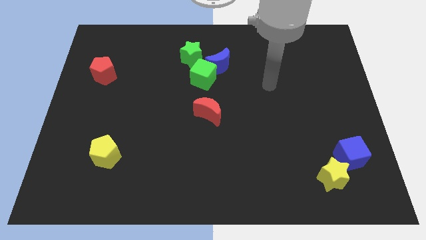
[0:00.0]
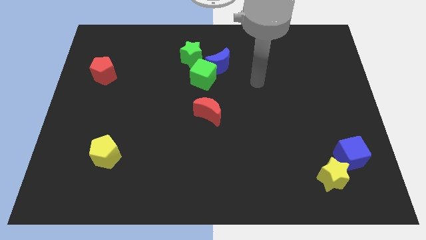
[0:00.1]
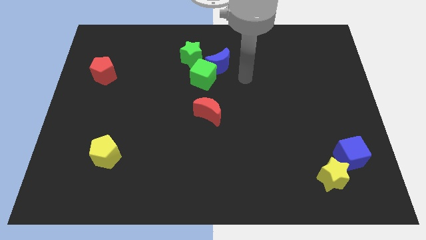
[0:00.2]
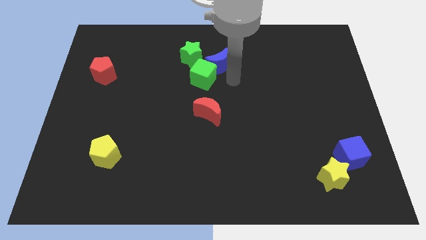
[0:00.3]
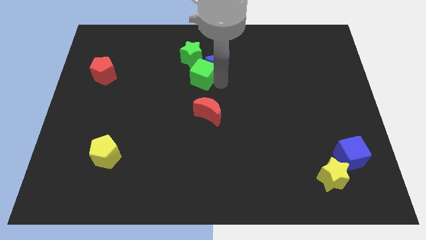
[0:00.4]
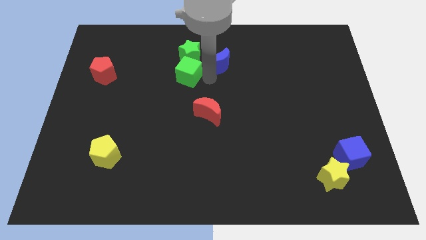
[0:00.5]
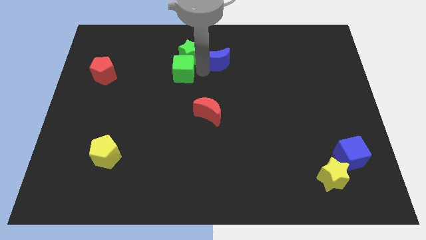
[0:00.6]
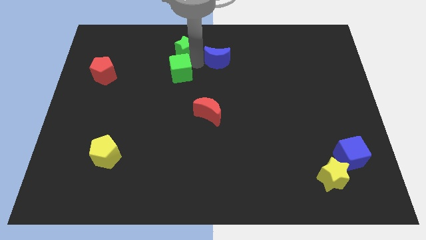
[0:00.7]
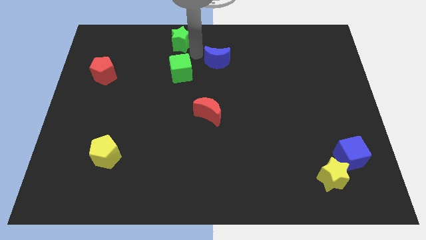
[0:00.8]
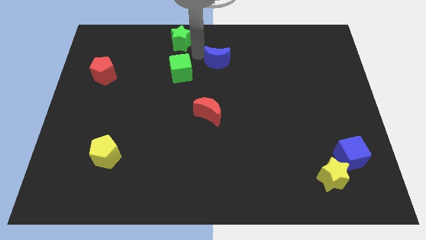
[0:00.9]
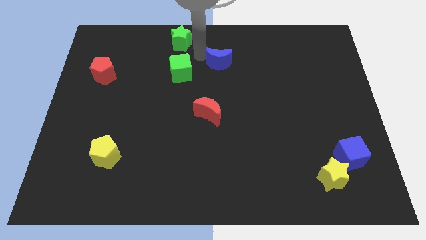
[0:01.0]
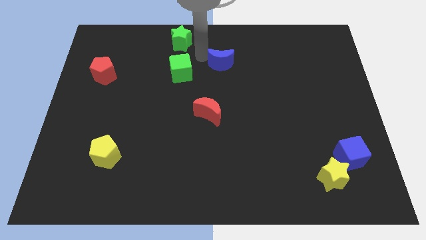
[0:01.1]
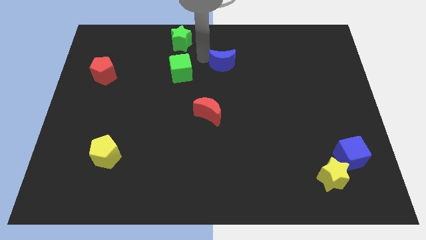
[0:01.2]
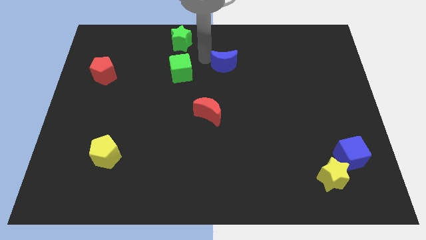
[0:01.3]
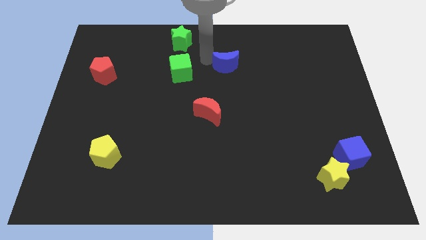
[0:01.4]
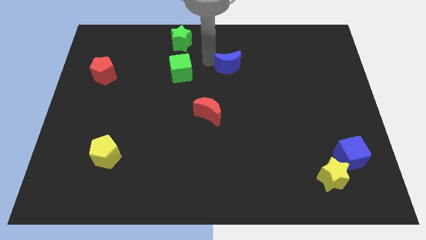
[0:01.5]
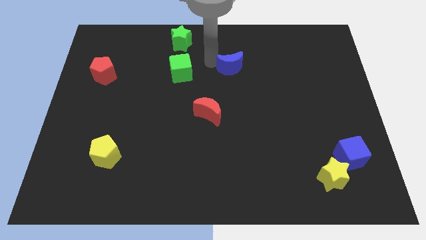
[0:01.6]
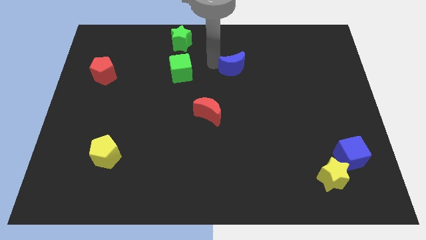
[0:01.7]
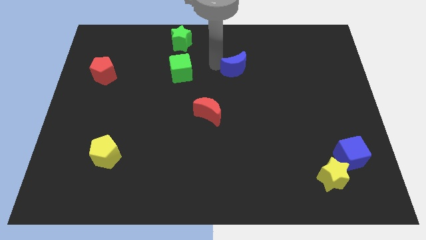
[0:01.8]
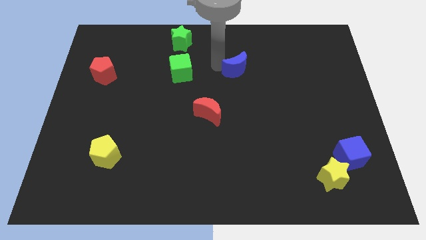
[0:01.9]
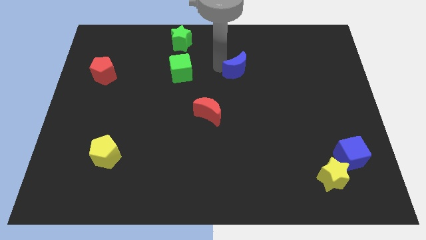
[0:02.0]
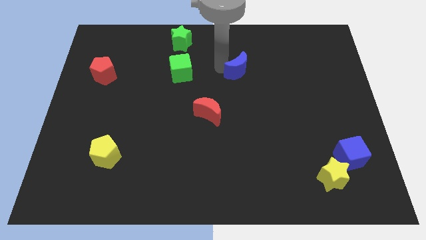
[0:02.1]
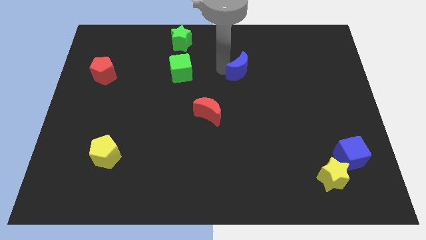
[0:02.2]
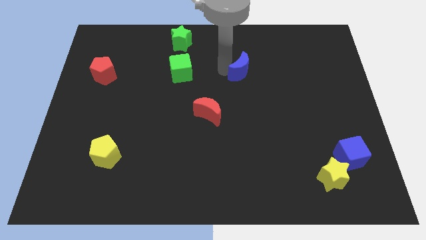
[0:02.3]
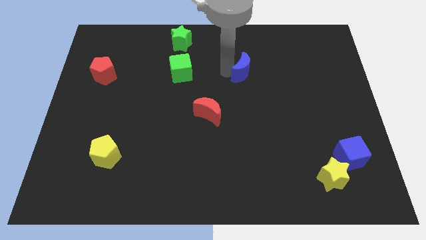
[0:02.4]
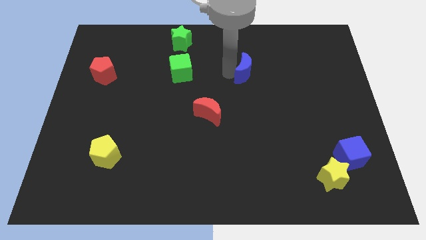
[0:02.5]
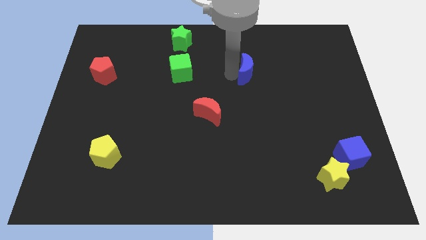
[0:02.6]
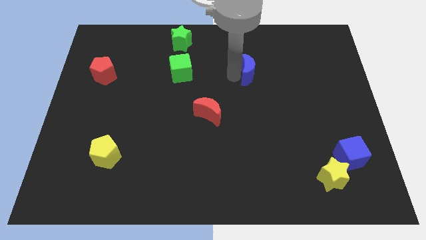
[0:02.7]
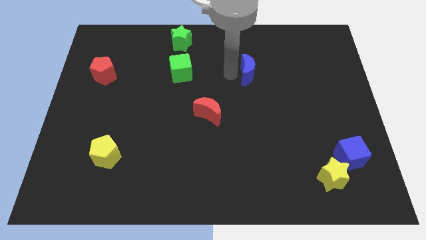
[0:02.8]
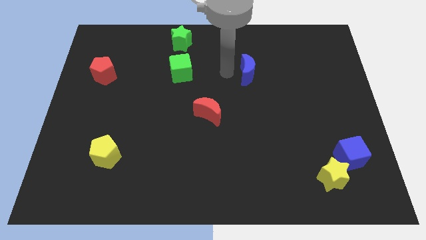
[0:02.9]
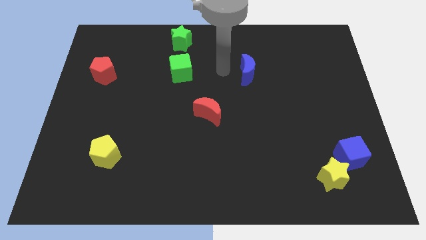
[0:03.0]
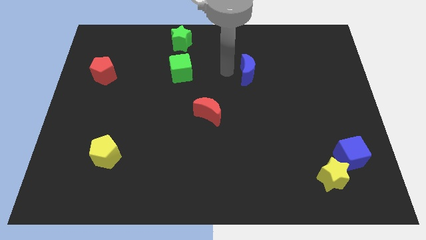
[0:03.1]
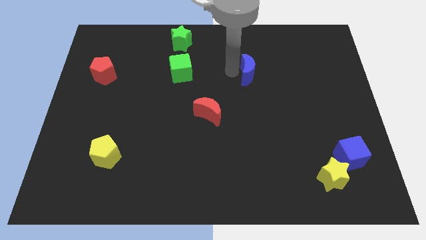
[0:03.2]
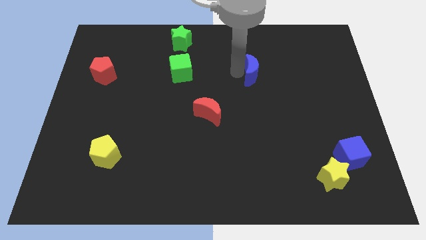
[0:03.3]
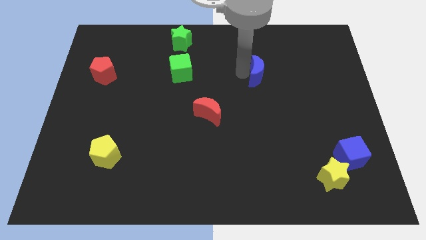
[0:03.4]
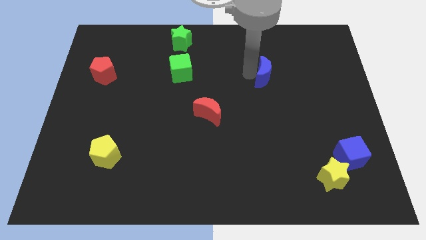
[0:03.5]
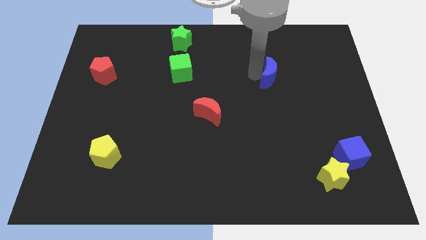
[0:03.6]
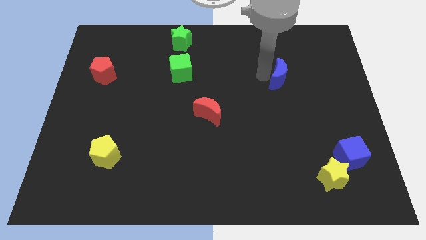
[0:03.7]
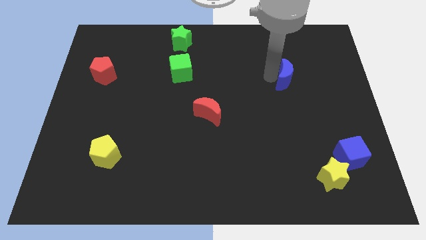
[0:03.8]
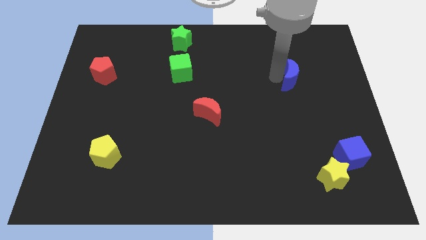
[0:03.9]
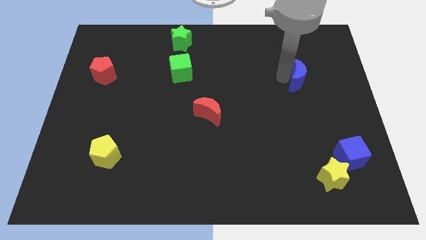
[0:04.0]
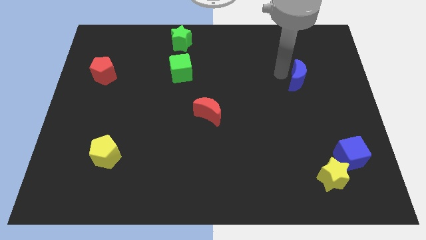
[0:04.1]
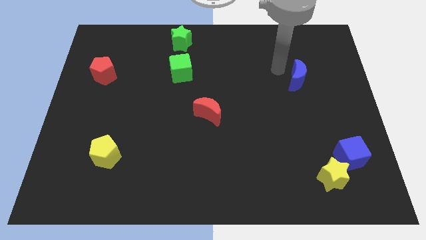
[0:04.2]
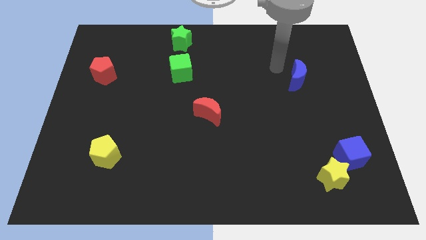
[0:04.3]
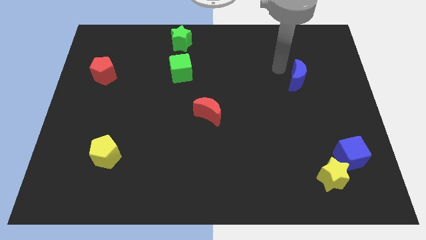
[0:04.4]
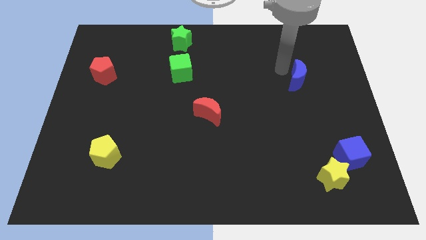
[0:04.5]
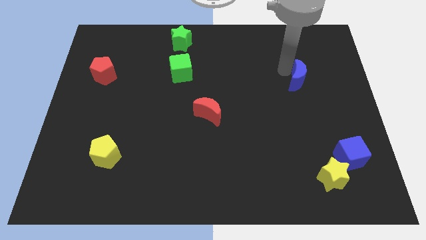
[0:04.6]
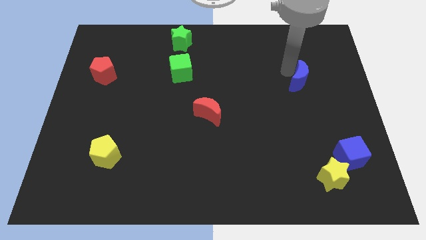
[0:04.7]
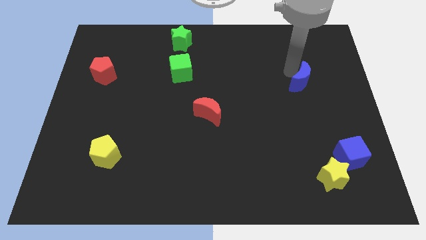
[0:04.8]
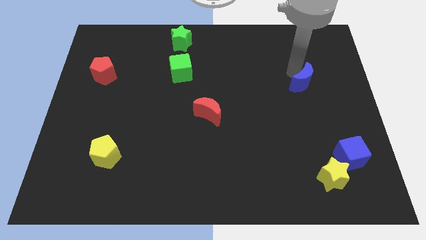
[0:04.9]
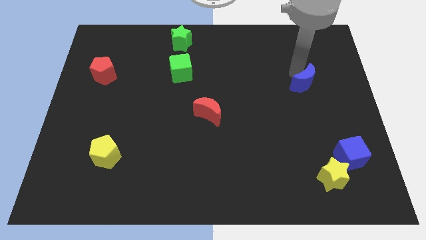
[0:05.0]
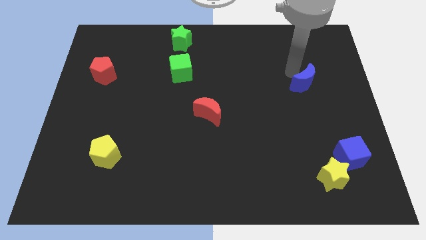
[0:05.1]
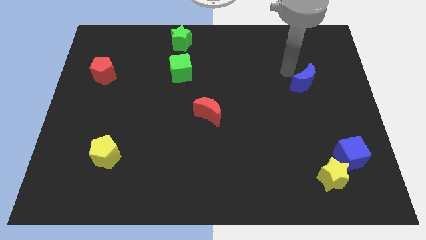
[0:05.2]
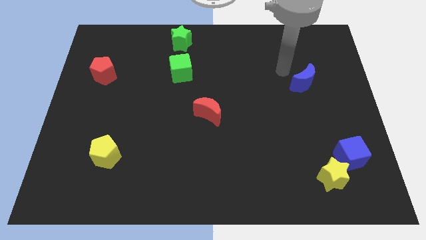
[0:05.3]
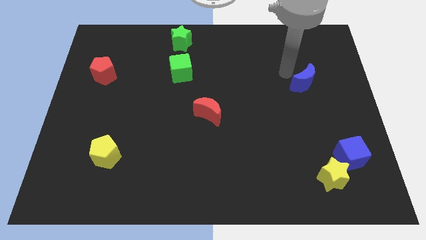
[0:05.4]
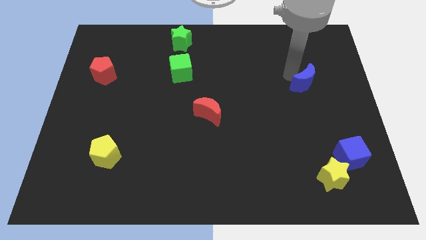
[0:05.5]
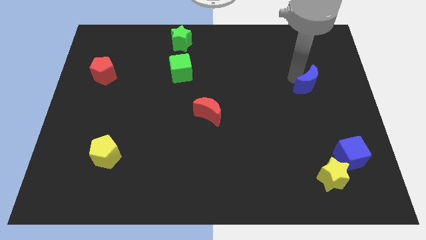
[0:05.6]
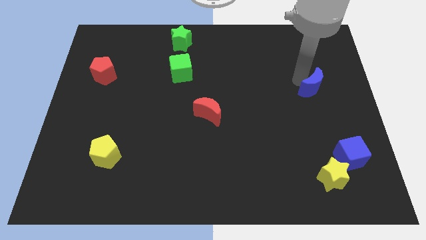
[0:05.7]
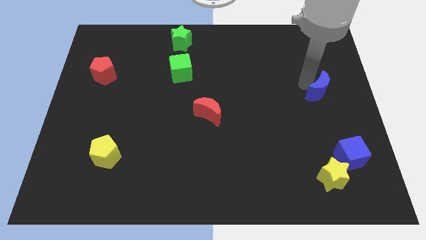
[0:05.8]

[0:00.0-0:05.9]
slide the blue moon to the right side of the board

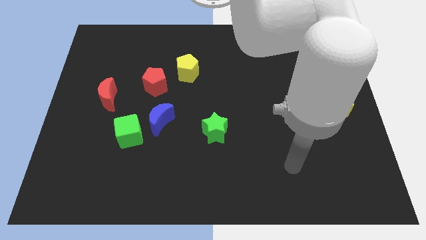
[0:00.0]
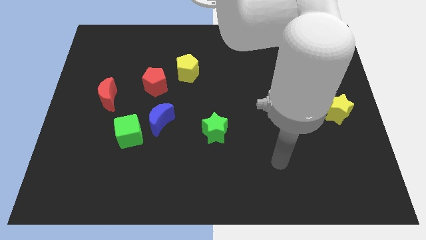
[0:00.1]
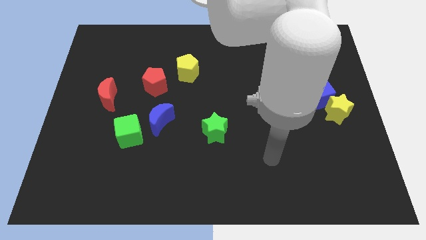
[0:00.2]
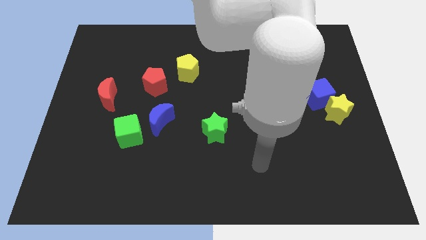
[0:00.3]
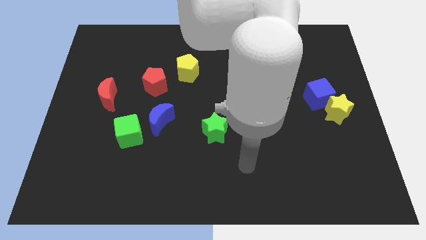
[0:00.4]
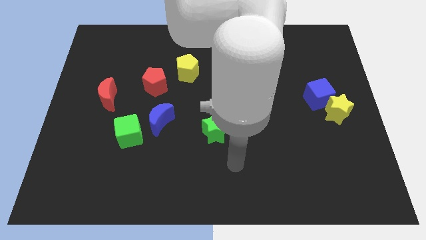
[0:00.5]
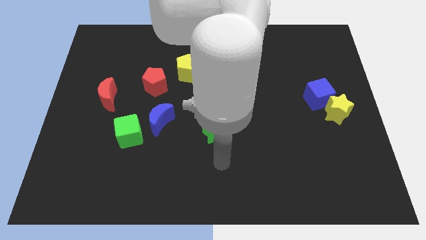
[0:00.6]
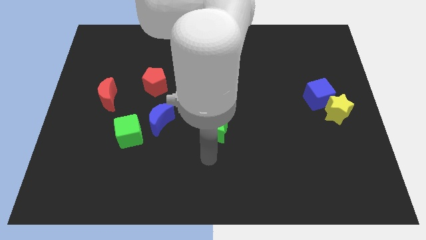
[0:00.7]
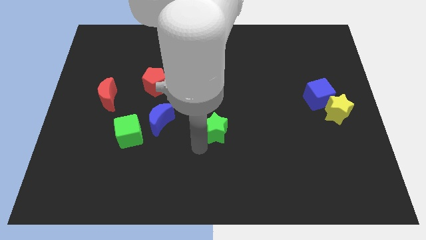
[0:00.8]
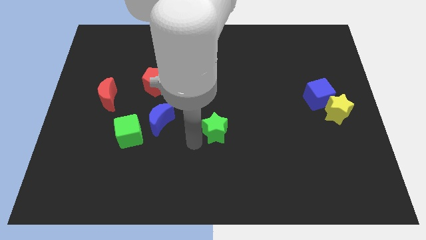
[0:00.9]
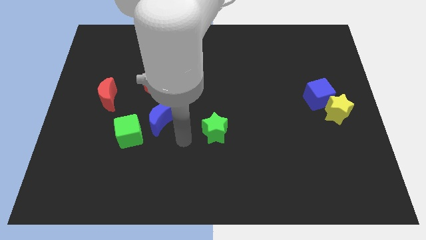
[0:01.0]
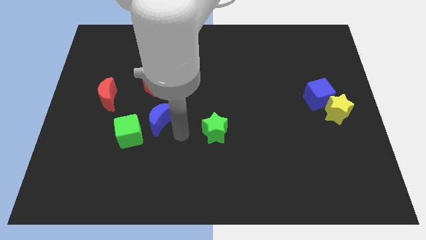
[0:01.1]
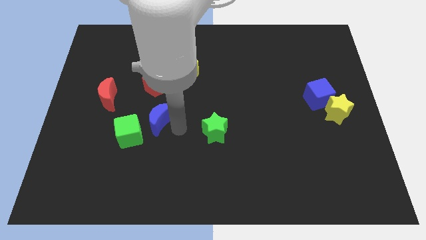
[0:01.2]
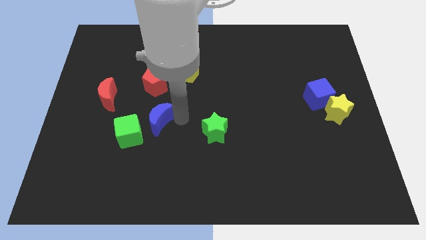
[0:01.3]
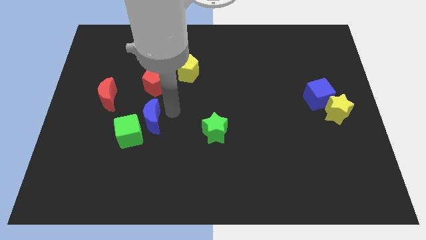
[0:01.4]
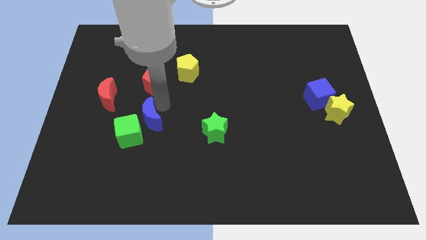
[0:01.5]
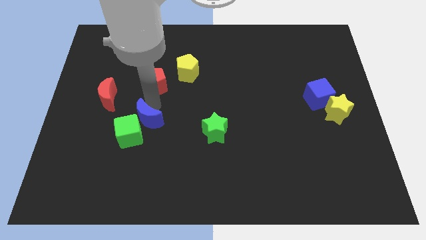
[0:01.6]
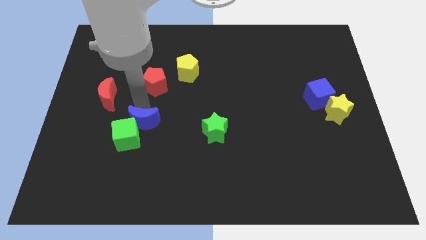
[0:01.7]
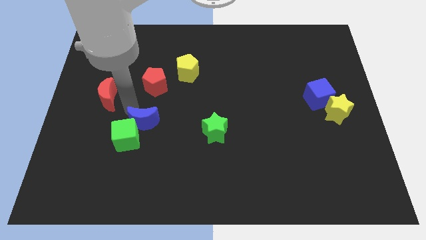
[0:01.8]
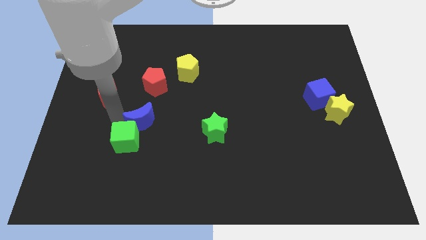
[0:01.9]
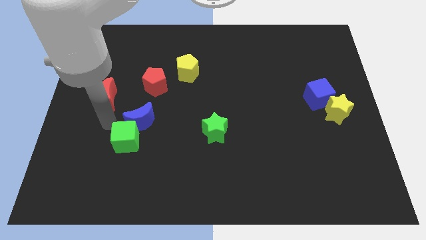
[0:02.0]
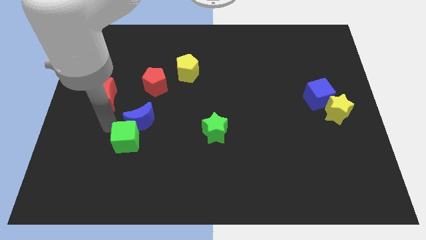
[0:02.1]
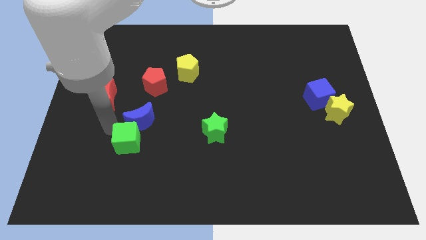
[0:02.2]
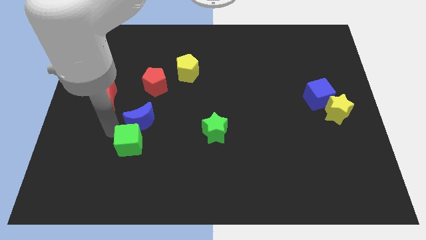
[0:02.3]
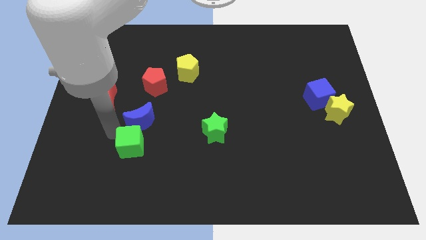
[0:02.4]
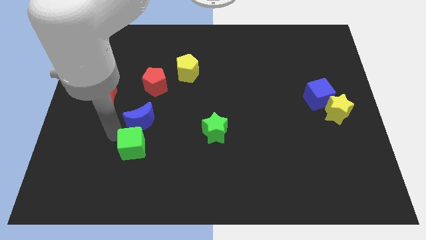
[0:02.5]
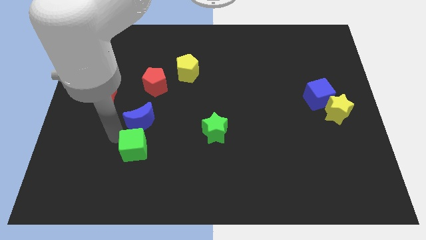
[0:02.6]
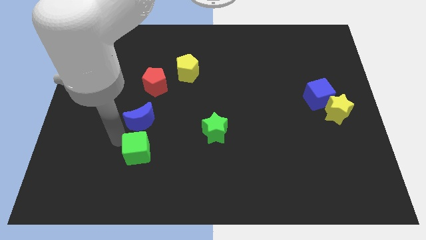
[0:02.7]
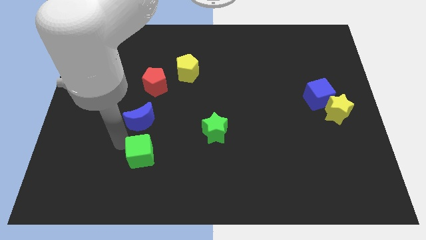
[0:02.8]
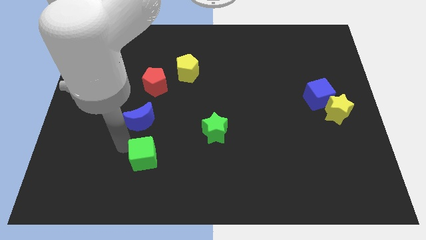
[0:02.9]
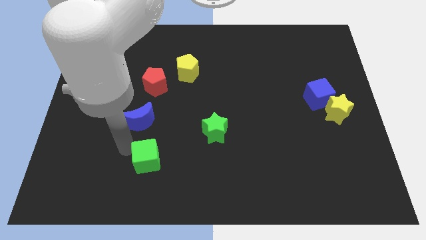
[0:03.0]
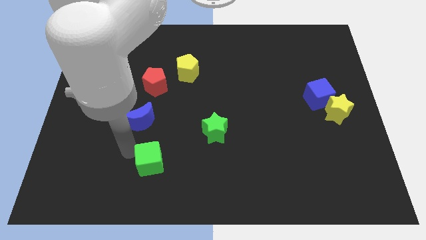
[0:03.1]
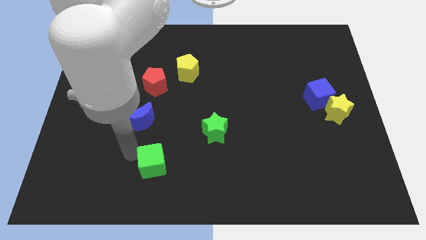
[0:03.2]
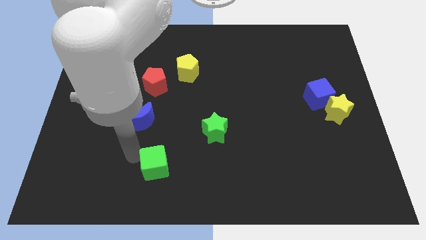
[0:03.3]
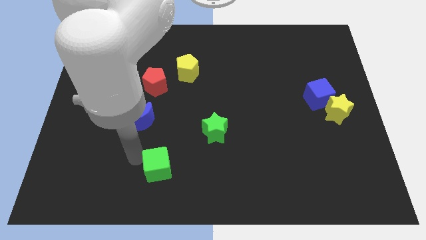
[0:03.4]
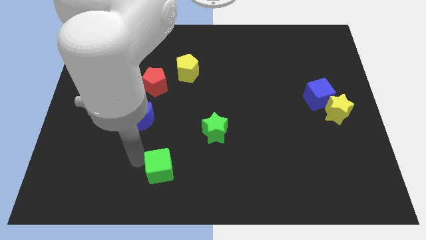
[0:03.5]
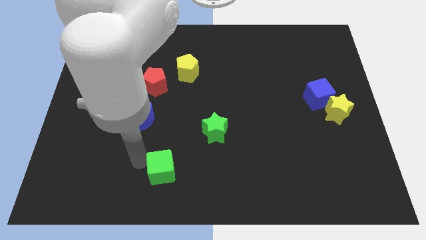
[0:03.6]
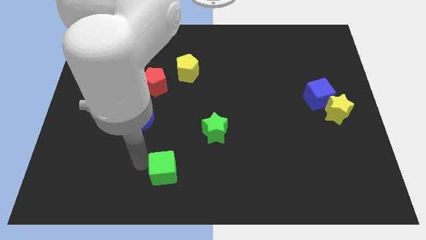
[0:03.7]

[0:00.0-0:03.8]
slide the green cube to the bottom
